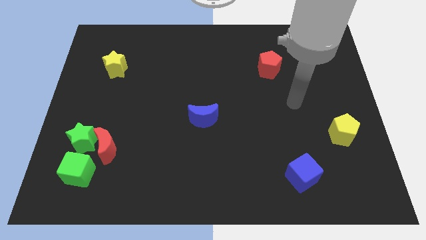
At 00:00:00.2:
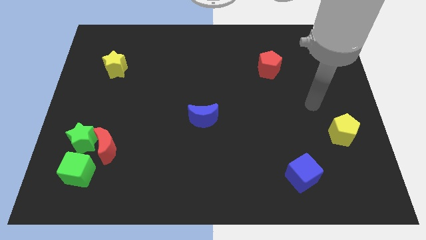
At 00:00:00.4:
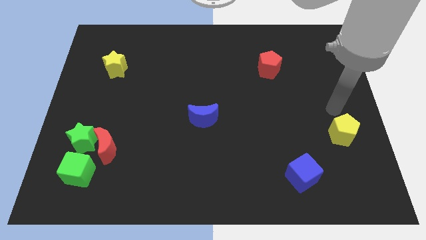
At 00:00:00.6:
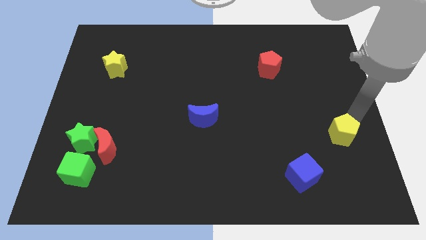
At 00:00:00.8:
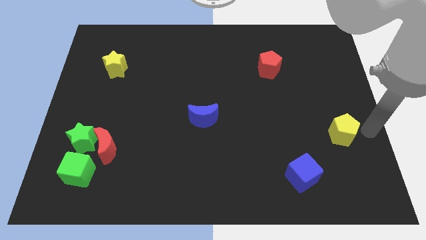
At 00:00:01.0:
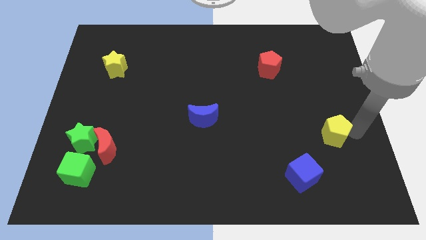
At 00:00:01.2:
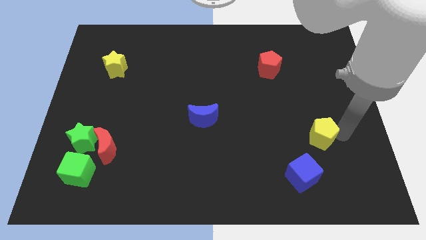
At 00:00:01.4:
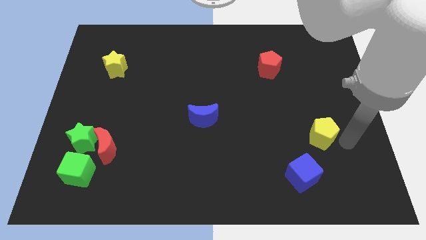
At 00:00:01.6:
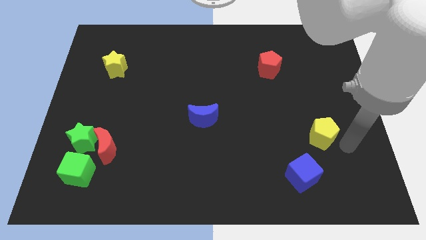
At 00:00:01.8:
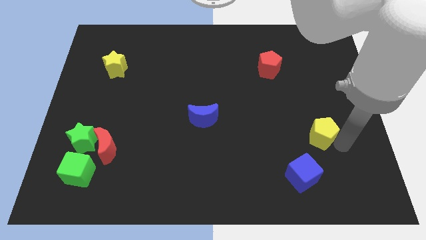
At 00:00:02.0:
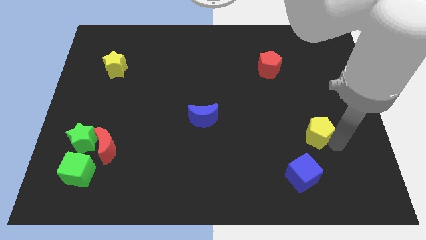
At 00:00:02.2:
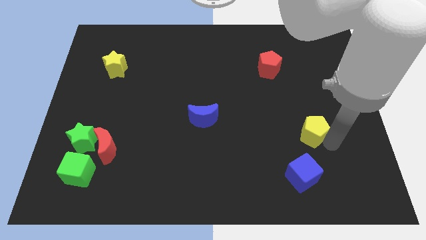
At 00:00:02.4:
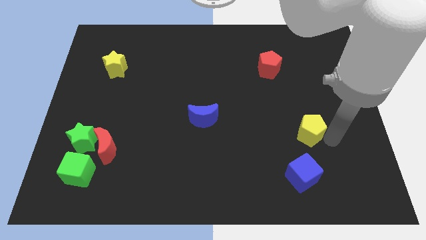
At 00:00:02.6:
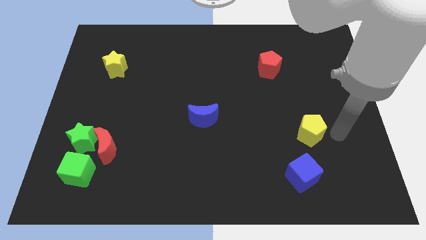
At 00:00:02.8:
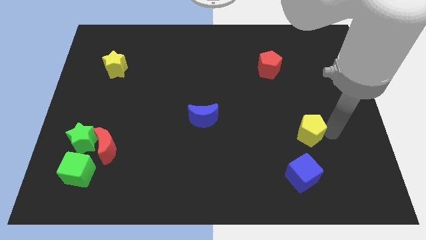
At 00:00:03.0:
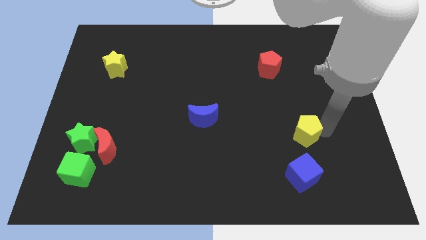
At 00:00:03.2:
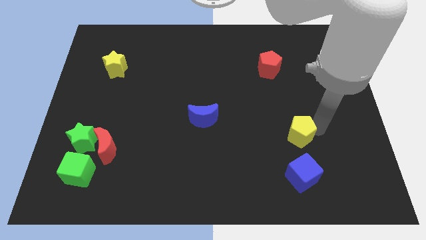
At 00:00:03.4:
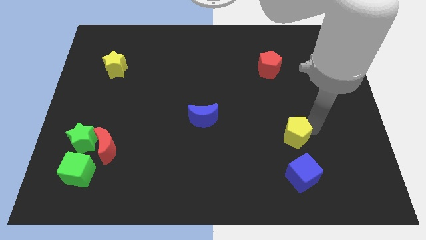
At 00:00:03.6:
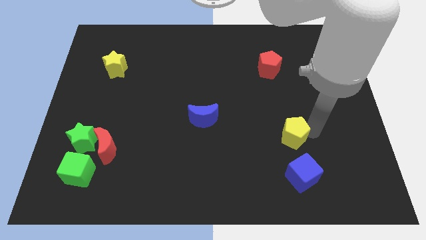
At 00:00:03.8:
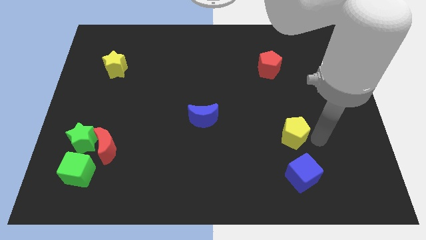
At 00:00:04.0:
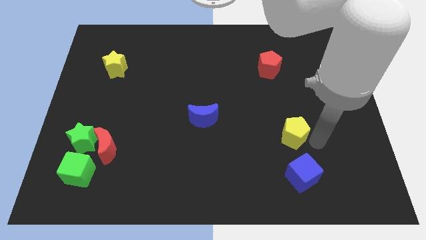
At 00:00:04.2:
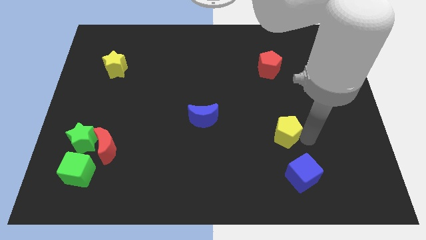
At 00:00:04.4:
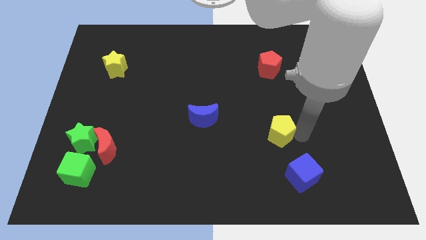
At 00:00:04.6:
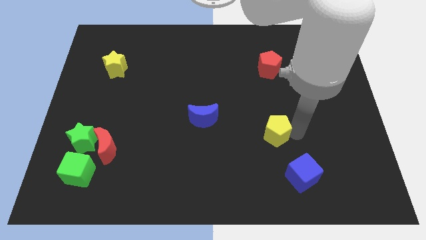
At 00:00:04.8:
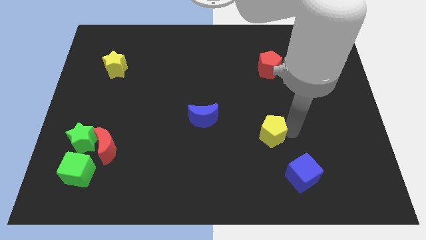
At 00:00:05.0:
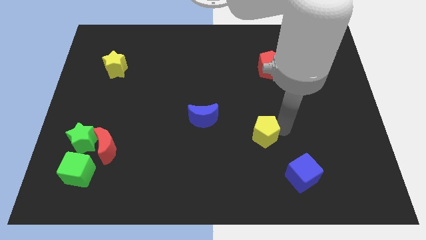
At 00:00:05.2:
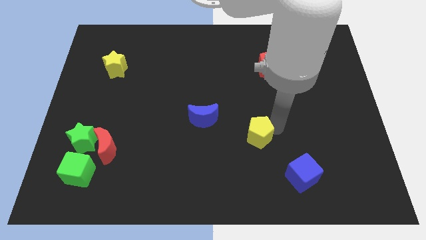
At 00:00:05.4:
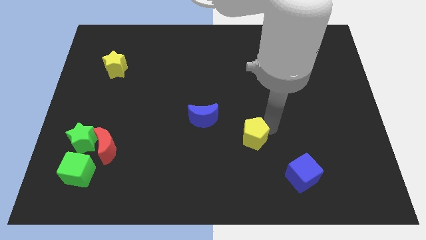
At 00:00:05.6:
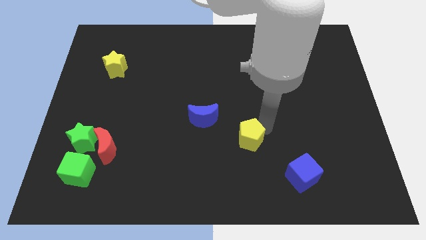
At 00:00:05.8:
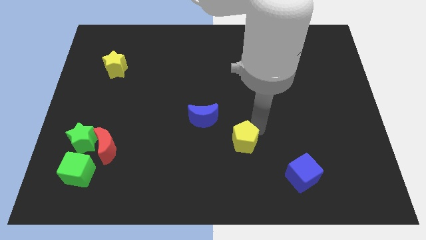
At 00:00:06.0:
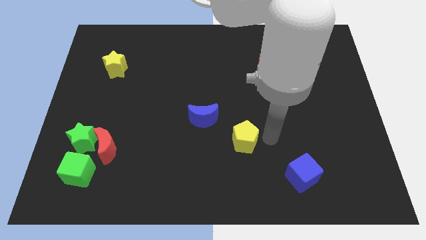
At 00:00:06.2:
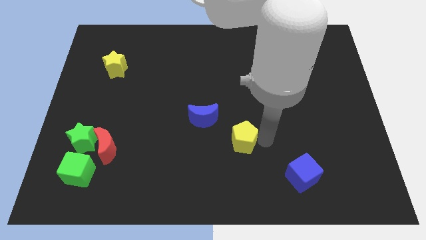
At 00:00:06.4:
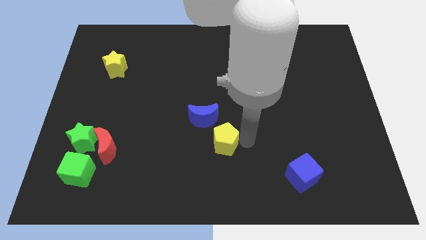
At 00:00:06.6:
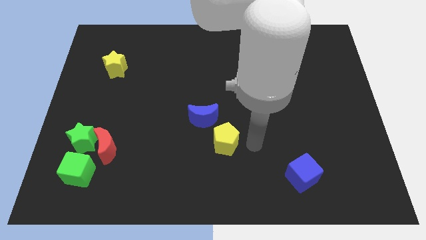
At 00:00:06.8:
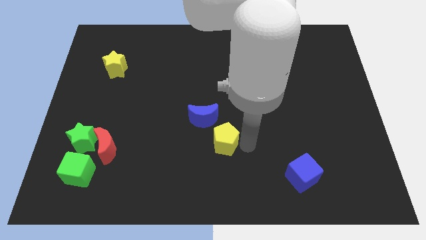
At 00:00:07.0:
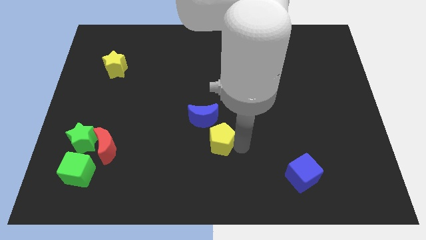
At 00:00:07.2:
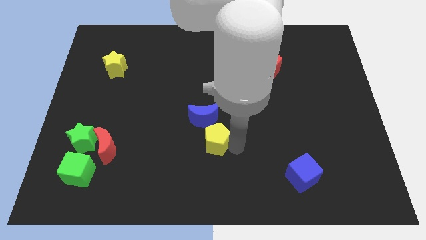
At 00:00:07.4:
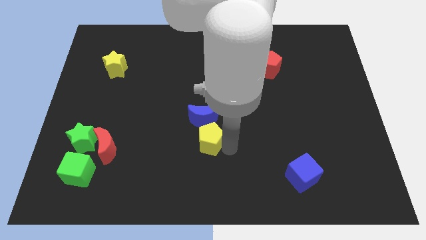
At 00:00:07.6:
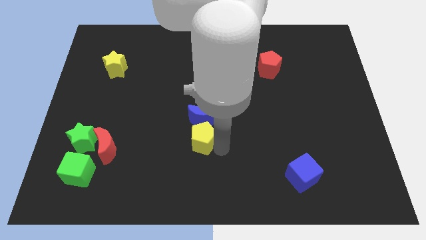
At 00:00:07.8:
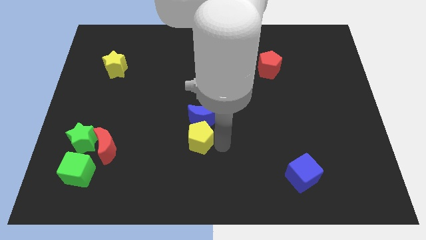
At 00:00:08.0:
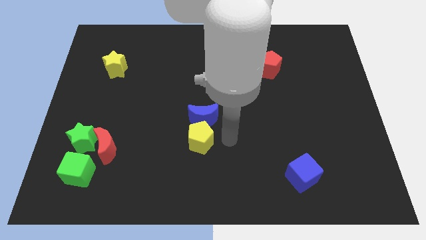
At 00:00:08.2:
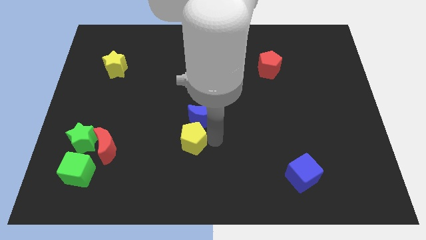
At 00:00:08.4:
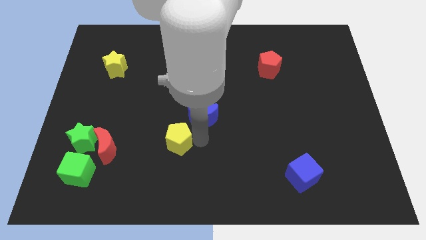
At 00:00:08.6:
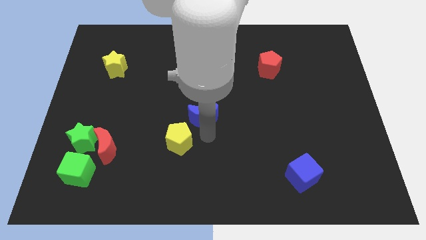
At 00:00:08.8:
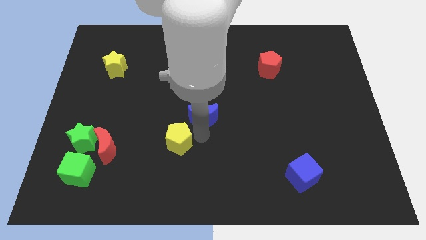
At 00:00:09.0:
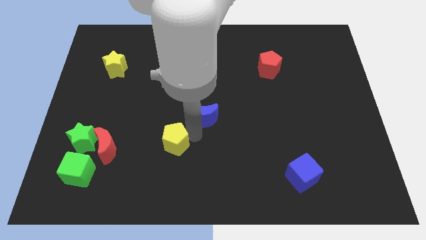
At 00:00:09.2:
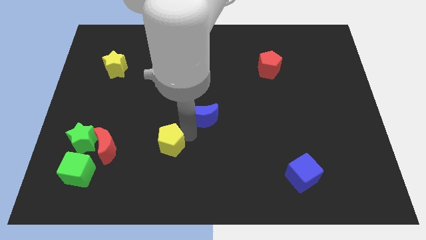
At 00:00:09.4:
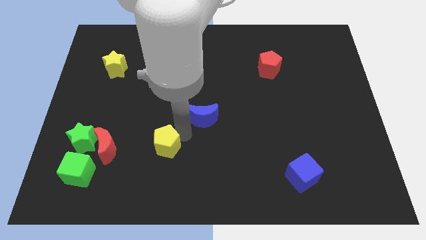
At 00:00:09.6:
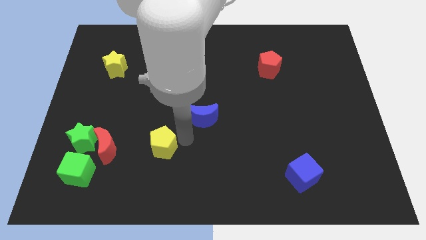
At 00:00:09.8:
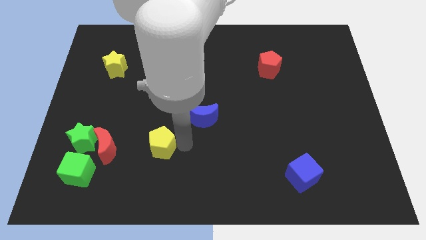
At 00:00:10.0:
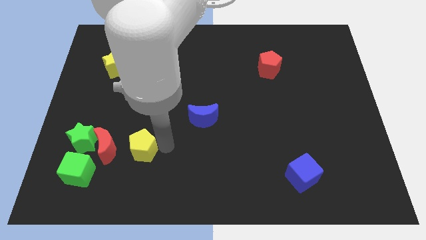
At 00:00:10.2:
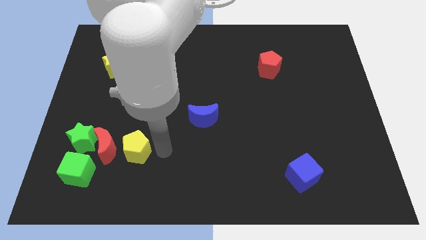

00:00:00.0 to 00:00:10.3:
slide the yellow pentagon towards the red moon

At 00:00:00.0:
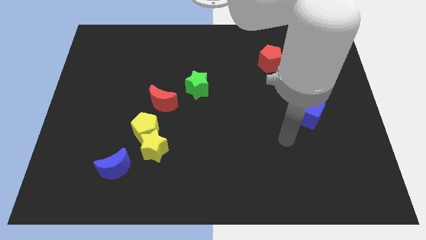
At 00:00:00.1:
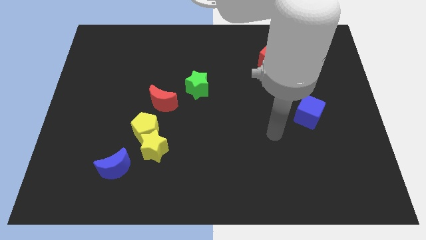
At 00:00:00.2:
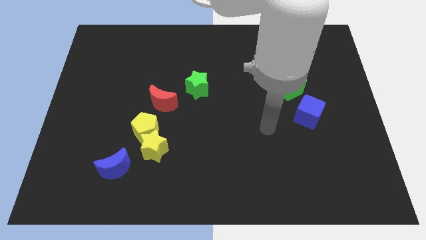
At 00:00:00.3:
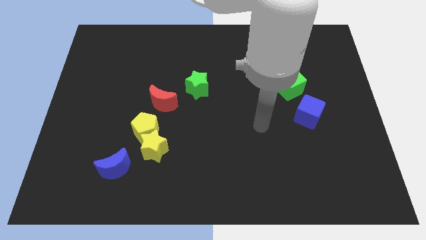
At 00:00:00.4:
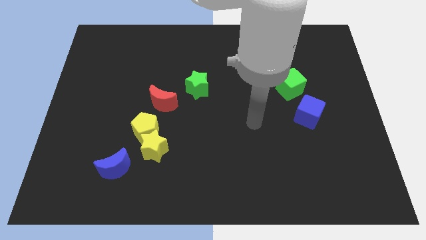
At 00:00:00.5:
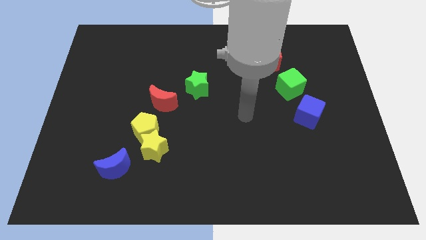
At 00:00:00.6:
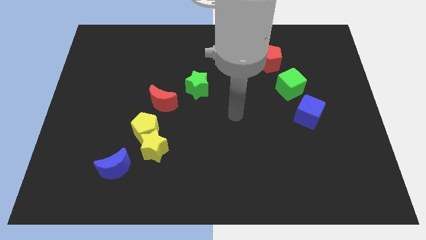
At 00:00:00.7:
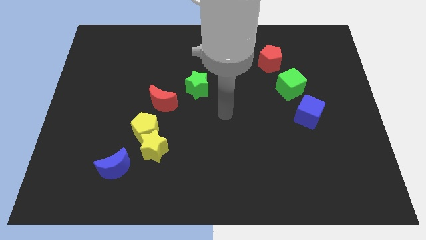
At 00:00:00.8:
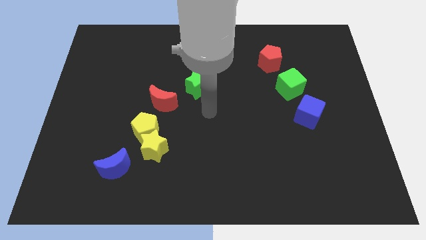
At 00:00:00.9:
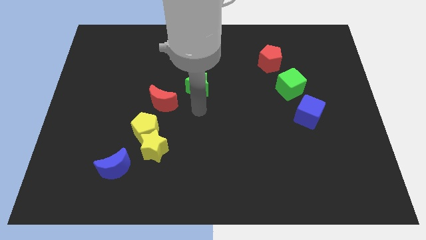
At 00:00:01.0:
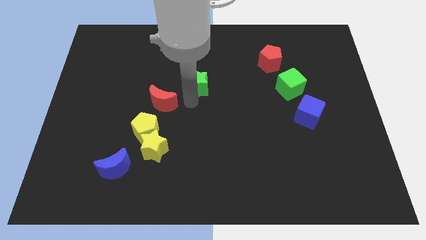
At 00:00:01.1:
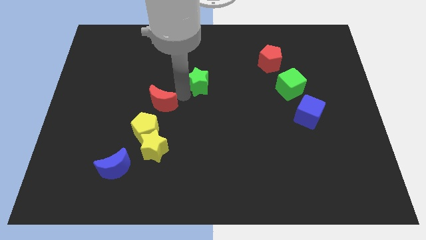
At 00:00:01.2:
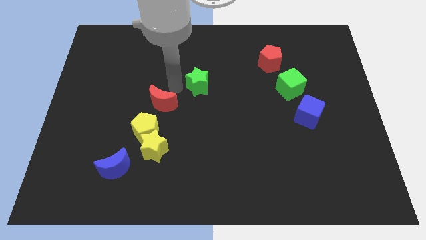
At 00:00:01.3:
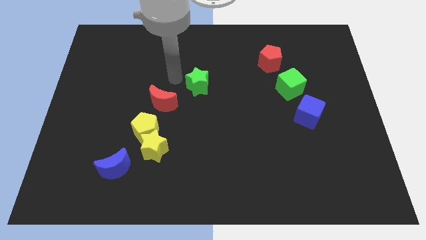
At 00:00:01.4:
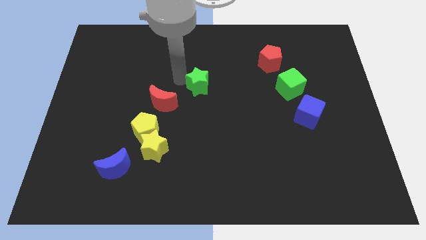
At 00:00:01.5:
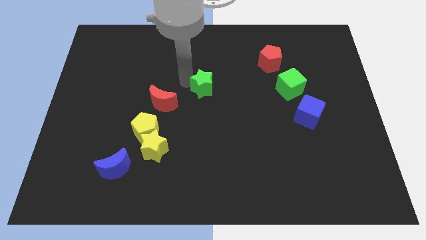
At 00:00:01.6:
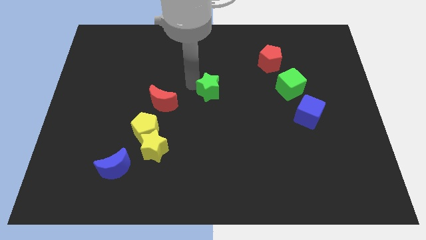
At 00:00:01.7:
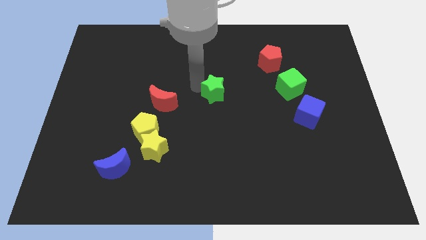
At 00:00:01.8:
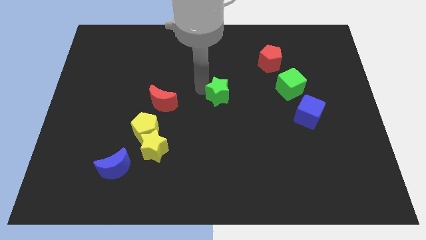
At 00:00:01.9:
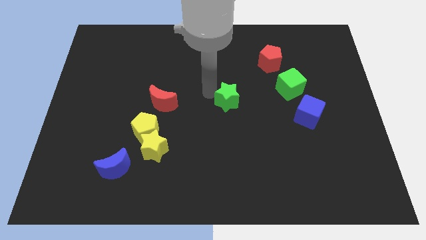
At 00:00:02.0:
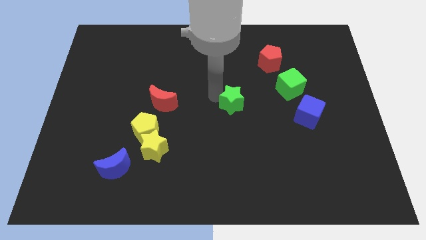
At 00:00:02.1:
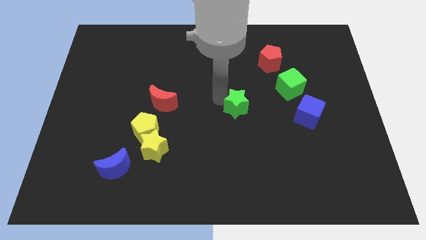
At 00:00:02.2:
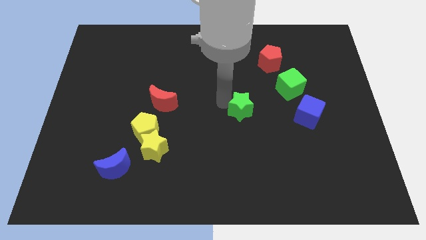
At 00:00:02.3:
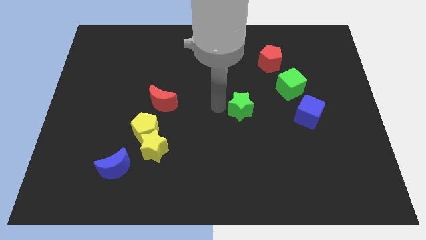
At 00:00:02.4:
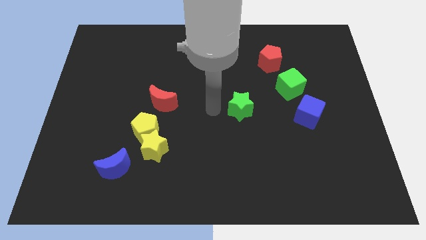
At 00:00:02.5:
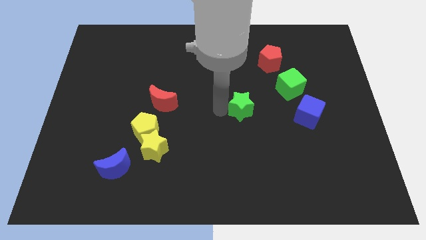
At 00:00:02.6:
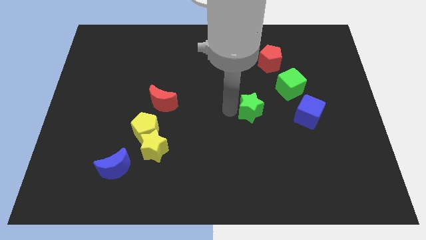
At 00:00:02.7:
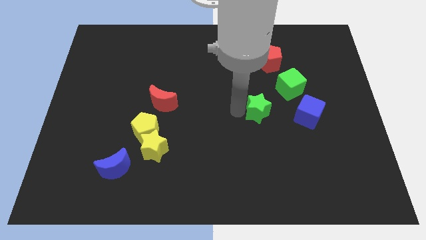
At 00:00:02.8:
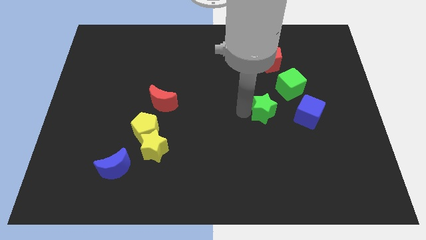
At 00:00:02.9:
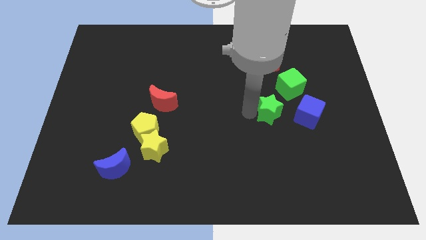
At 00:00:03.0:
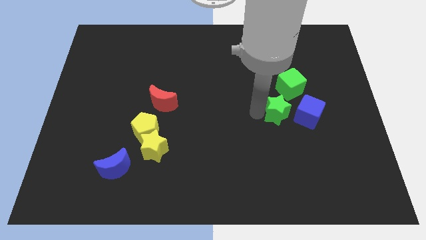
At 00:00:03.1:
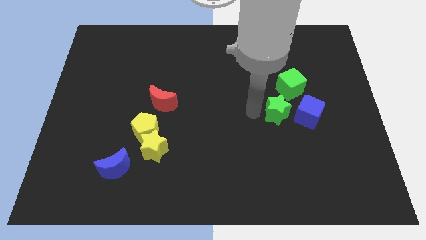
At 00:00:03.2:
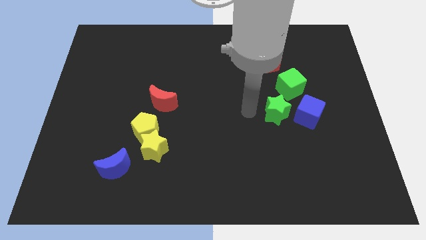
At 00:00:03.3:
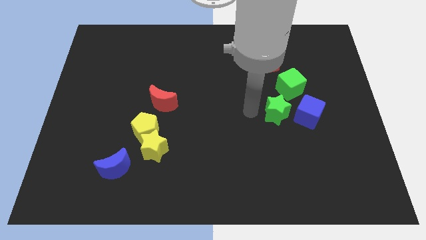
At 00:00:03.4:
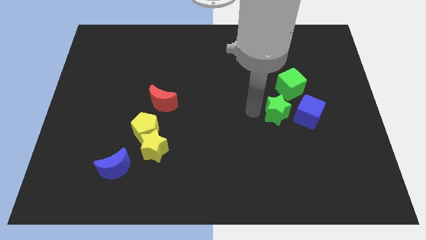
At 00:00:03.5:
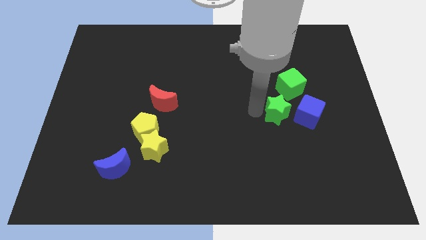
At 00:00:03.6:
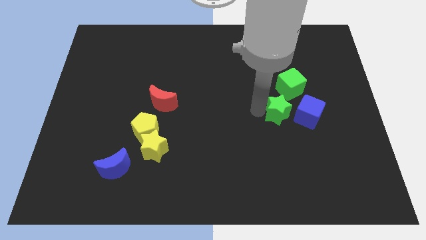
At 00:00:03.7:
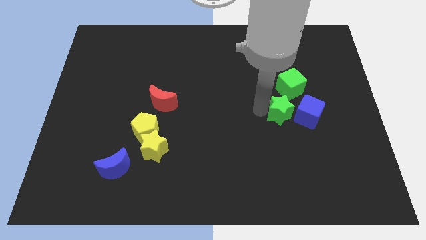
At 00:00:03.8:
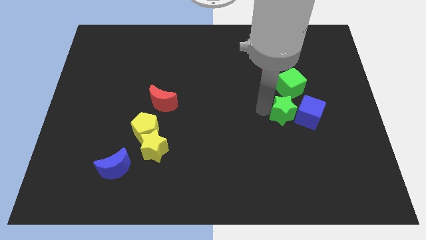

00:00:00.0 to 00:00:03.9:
slide the green star close to the blue cube
